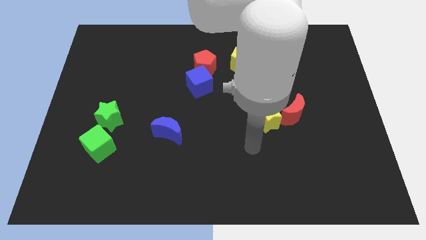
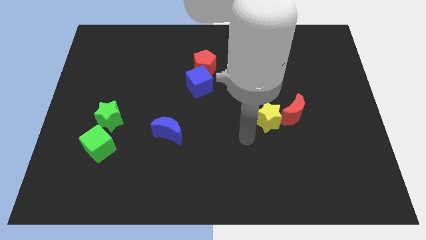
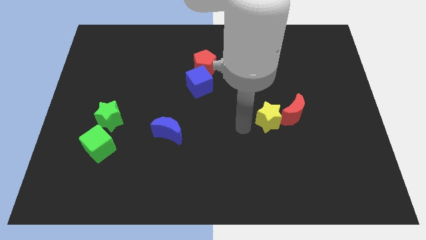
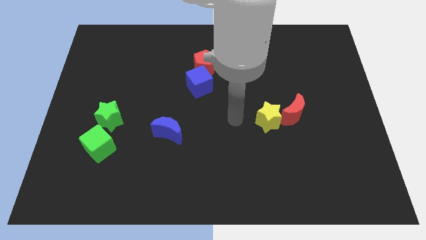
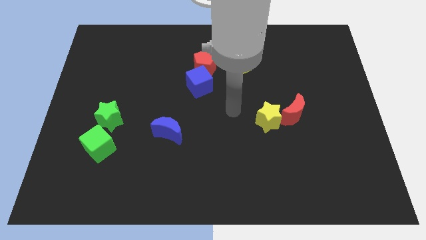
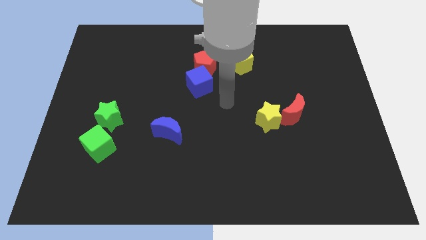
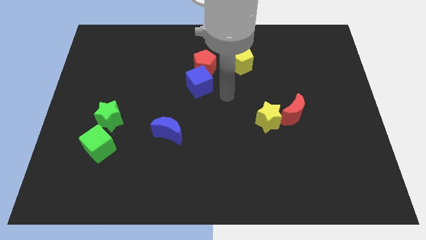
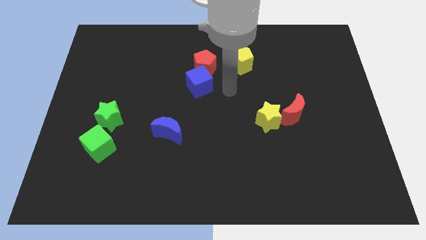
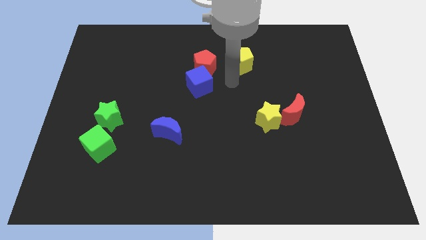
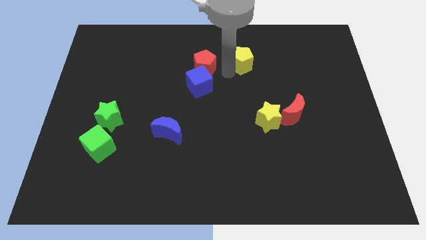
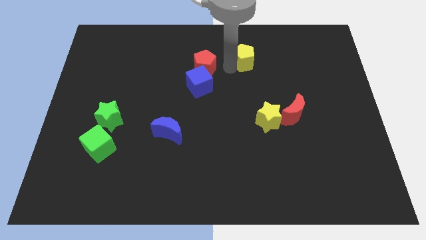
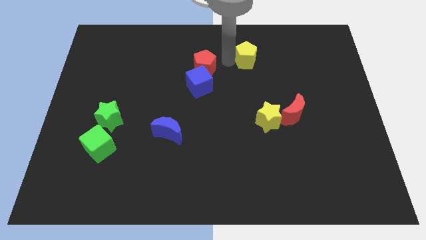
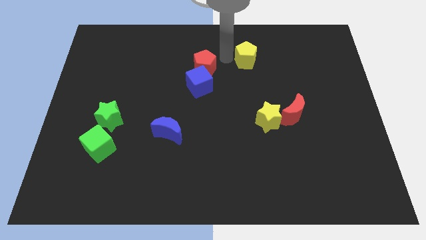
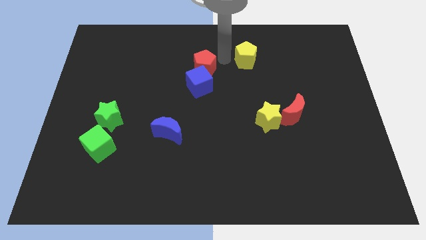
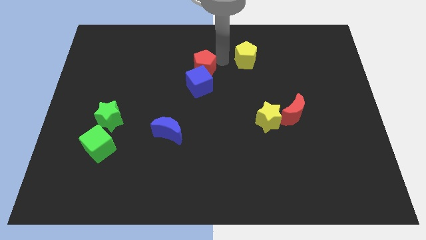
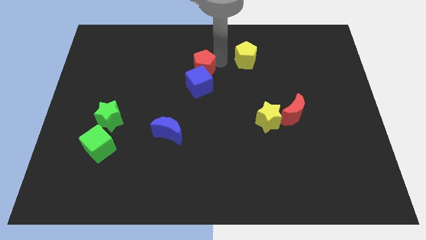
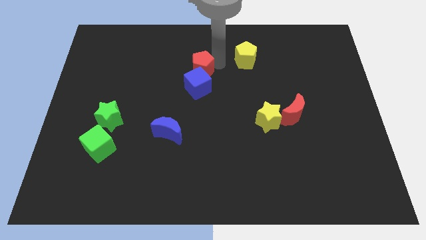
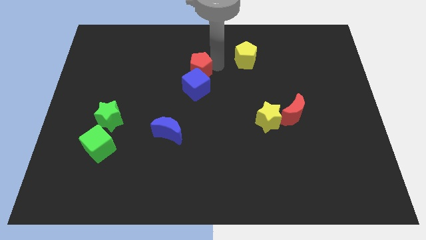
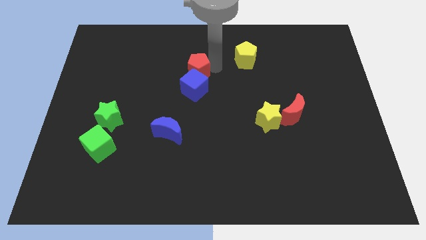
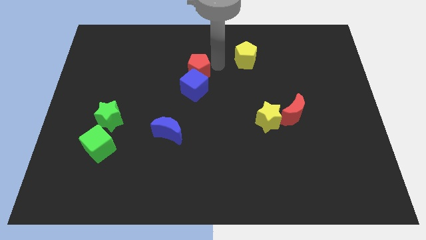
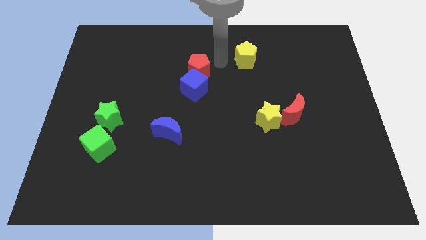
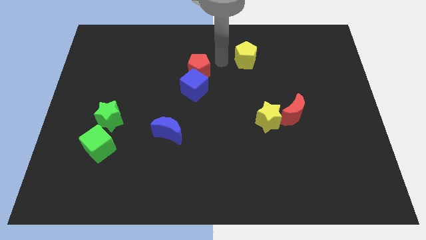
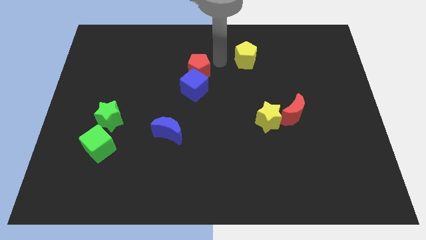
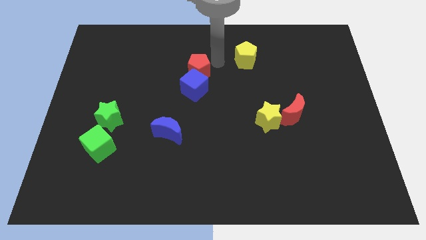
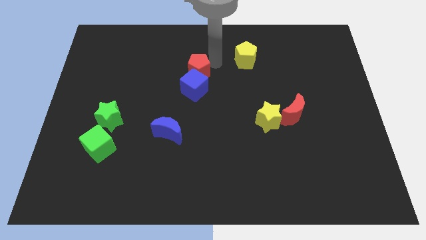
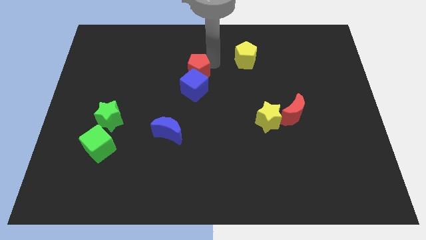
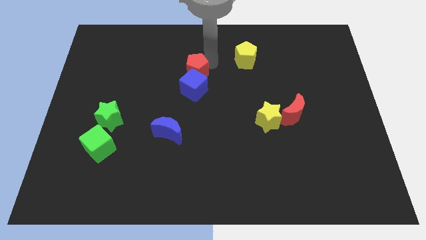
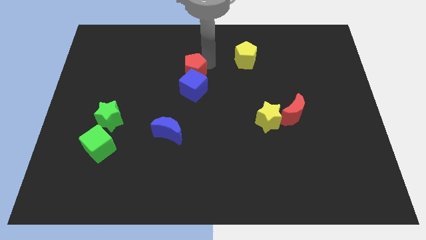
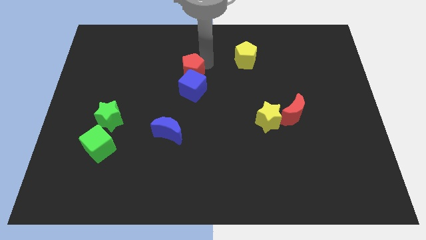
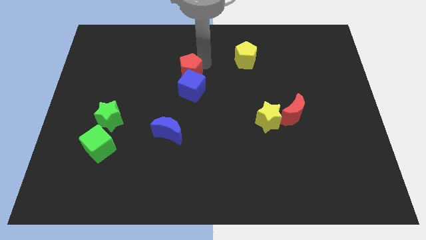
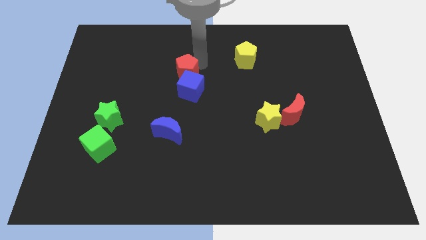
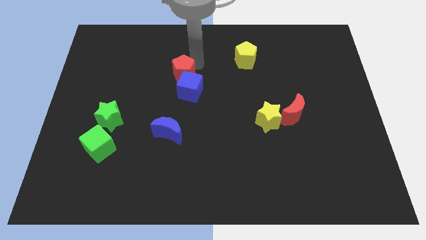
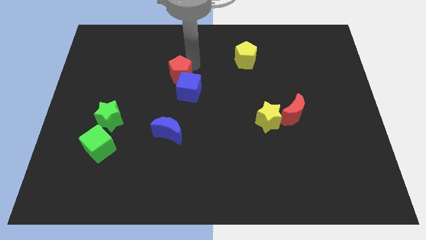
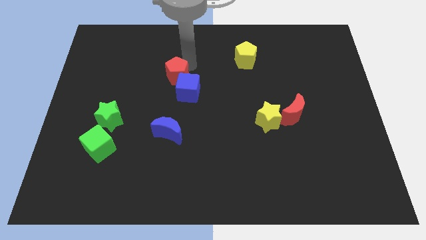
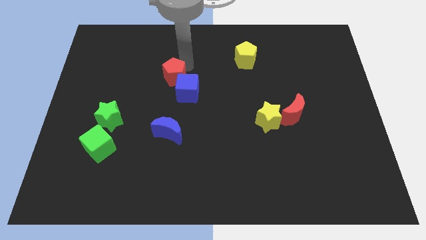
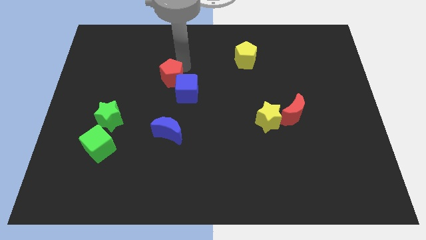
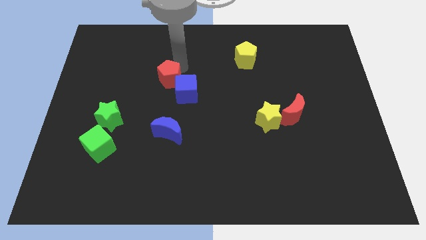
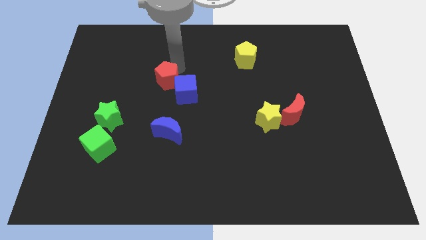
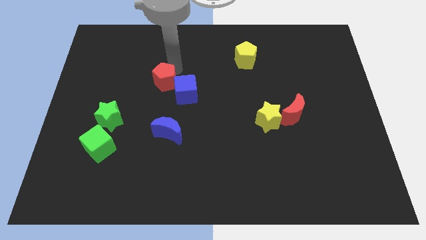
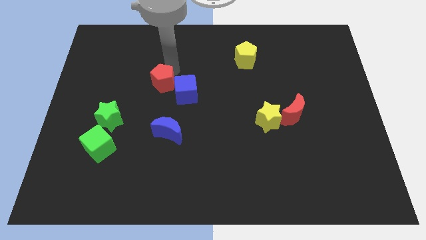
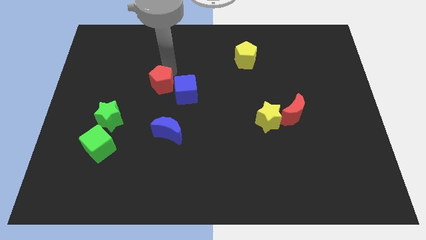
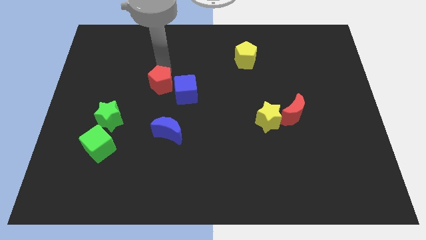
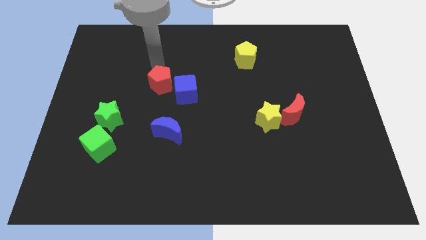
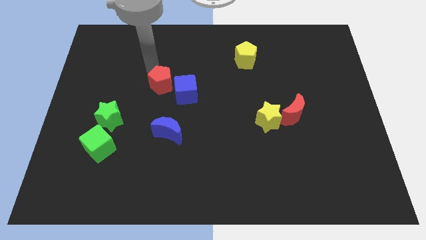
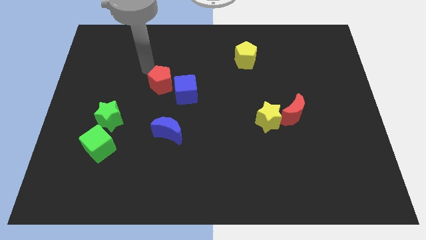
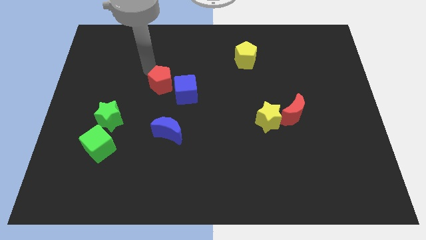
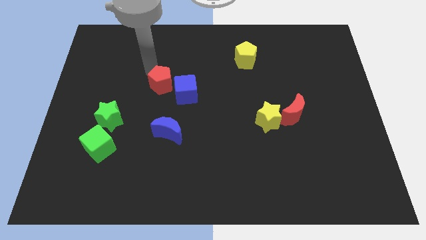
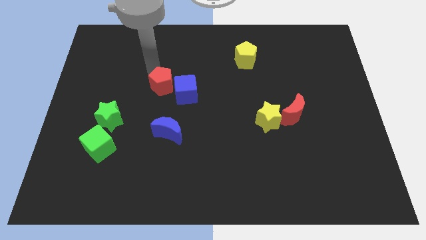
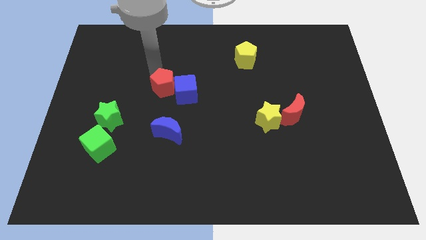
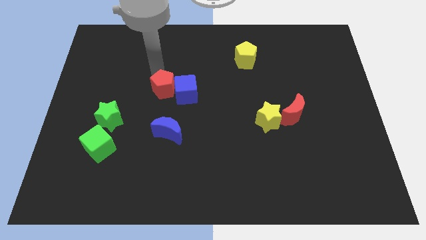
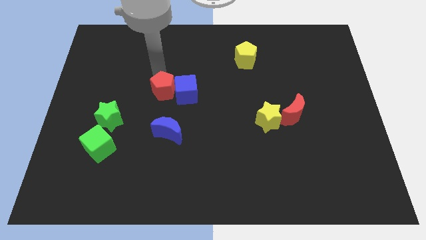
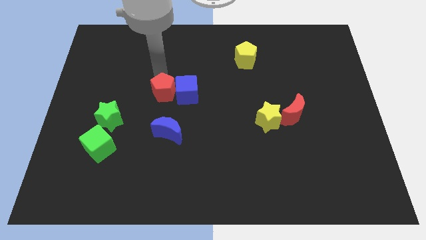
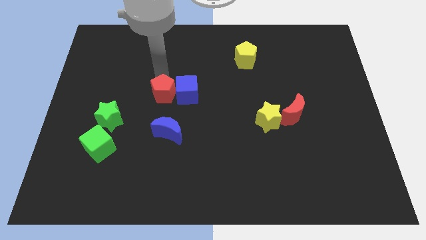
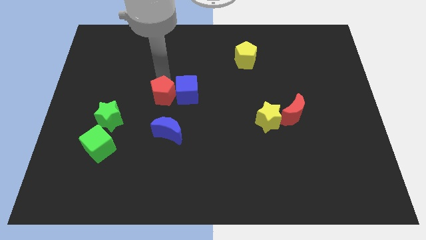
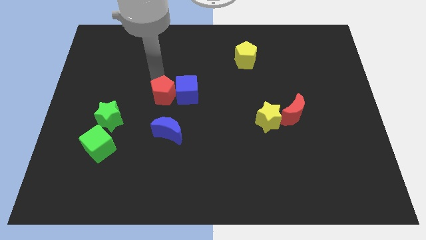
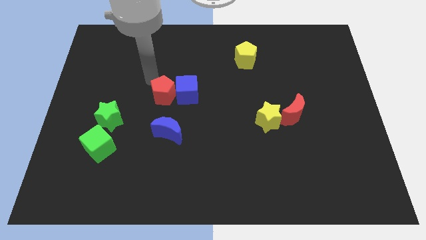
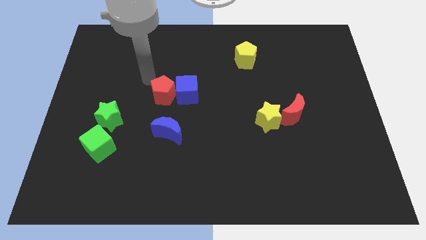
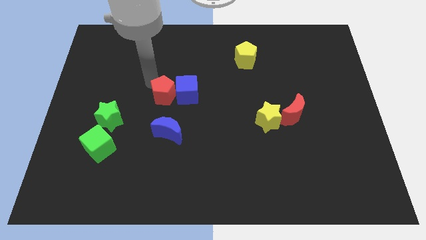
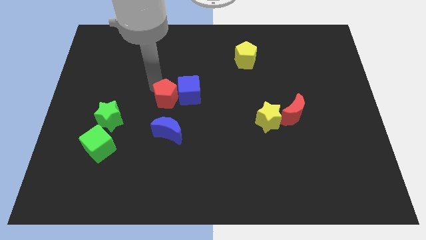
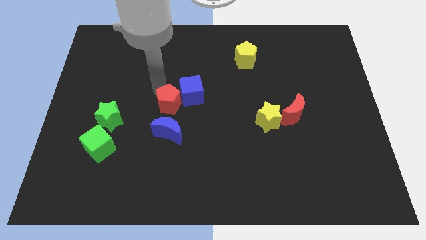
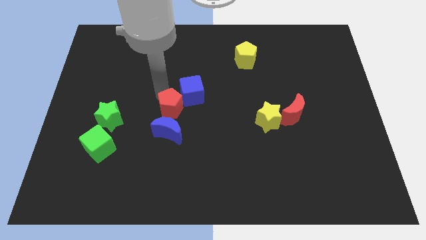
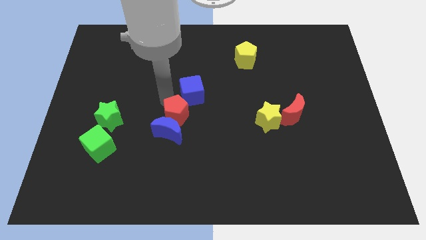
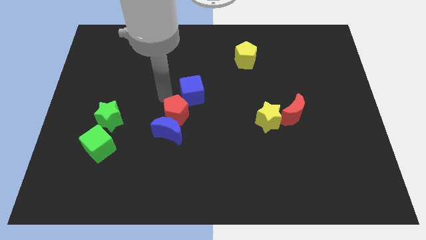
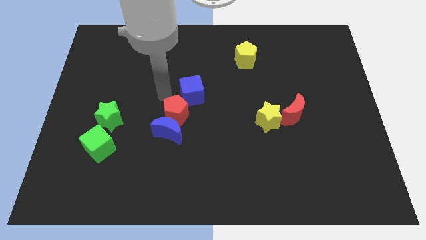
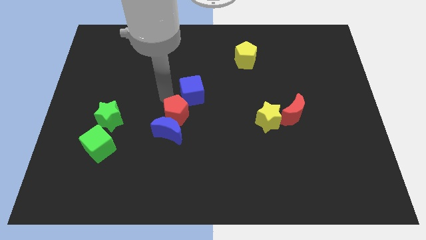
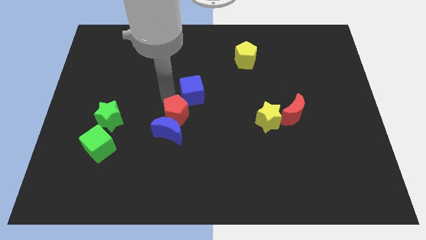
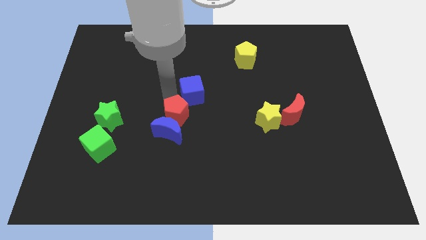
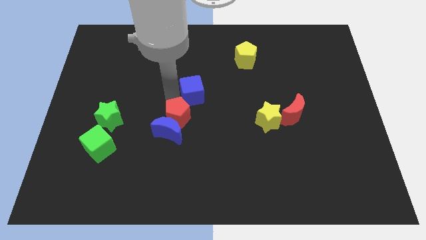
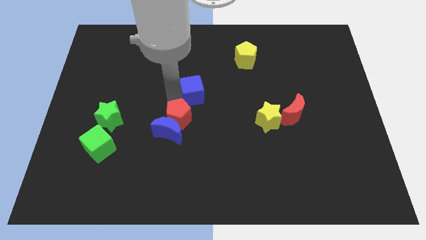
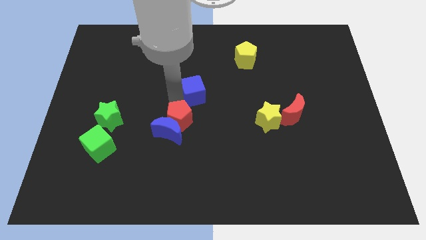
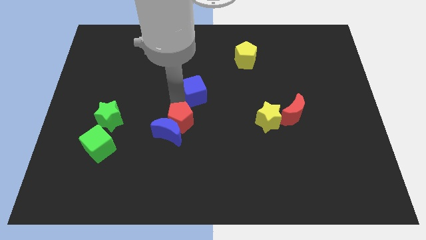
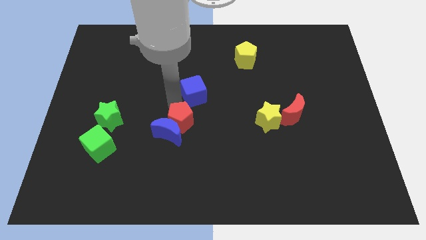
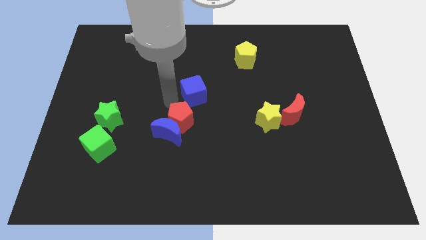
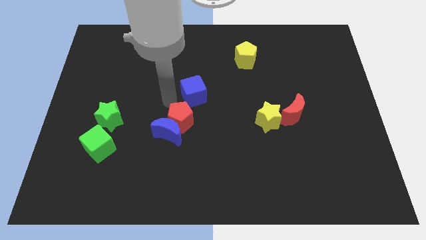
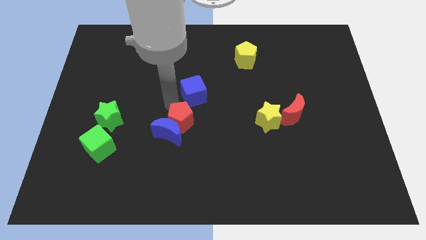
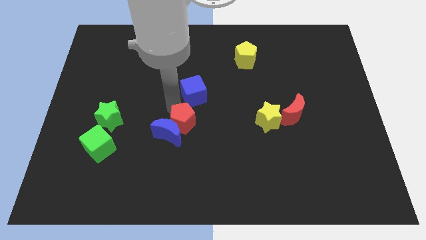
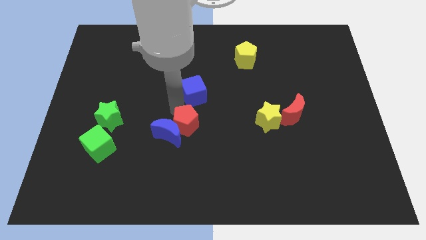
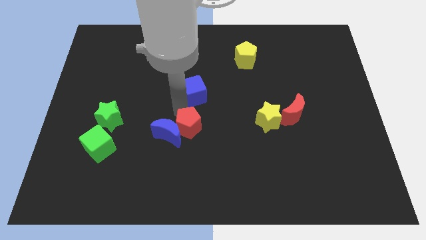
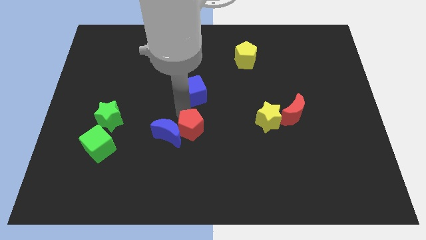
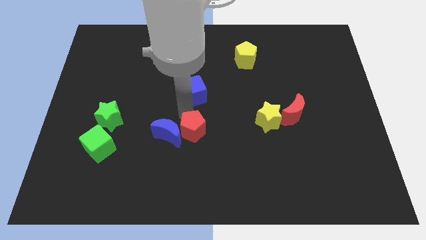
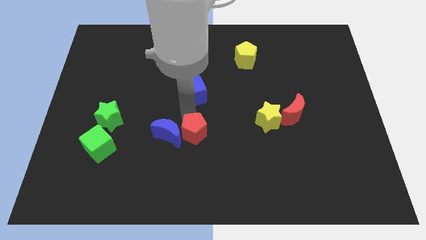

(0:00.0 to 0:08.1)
slide the red pentagon downwards
